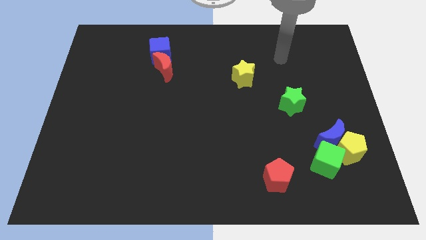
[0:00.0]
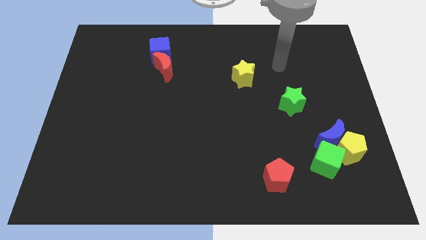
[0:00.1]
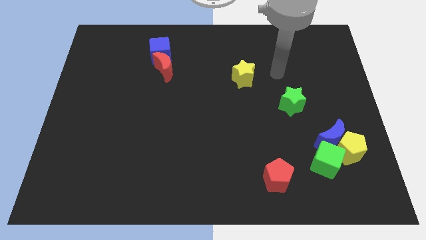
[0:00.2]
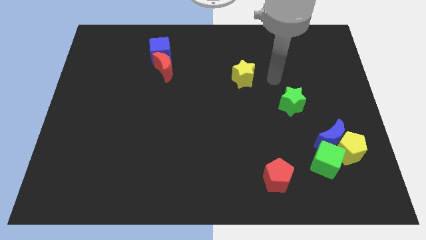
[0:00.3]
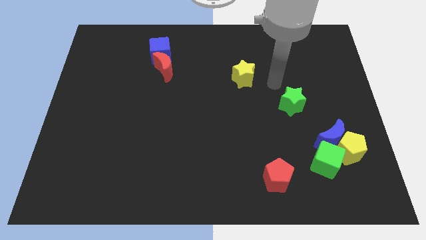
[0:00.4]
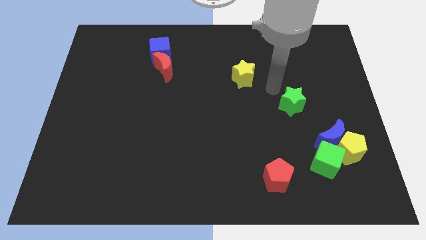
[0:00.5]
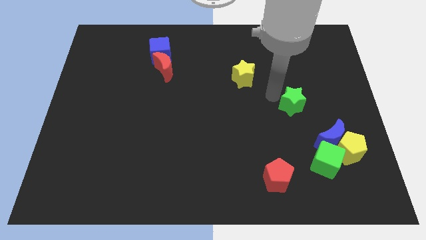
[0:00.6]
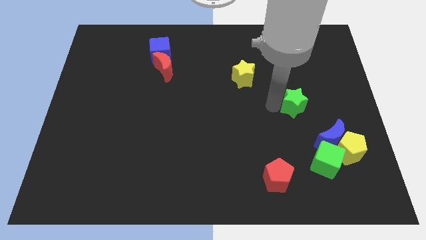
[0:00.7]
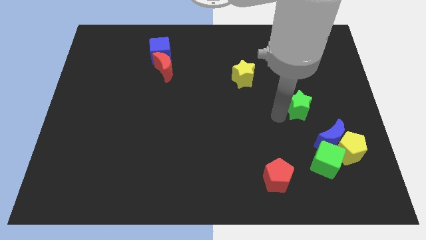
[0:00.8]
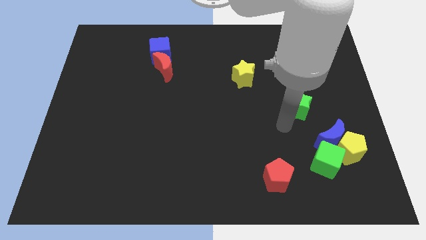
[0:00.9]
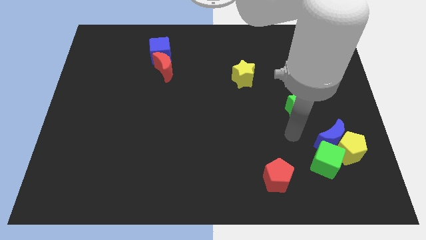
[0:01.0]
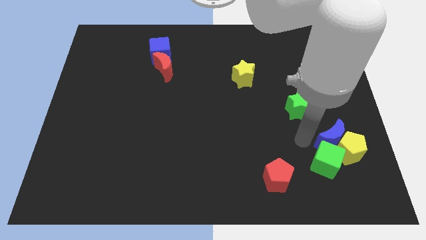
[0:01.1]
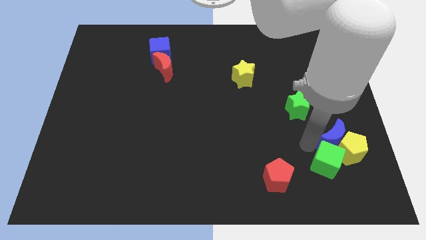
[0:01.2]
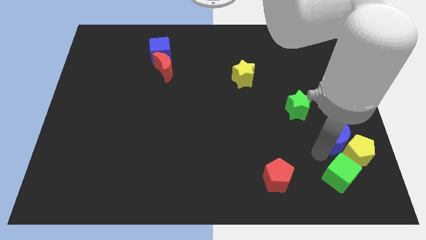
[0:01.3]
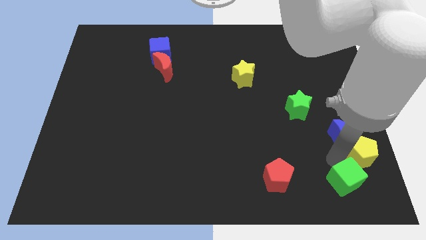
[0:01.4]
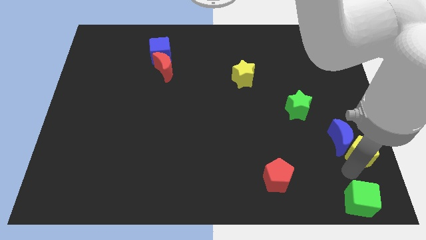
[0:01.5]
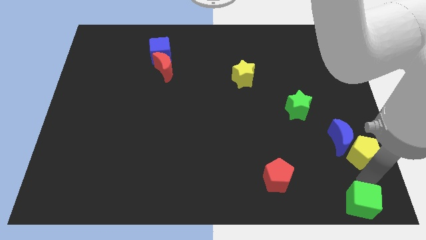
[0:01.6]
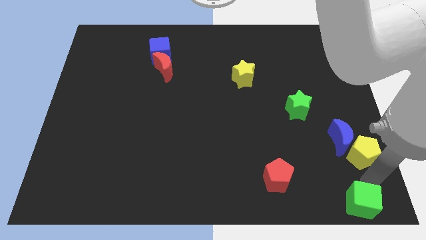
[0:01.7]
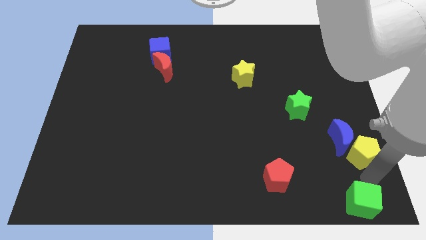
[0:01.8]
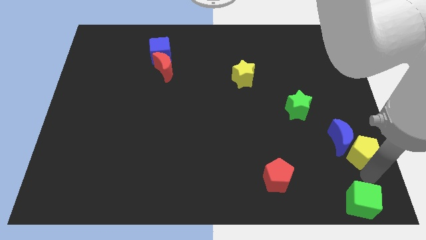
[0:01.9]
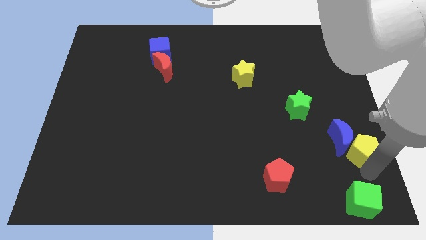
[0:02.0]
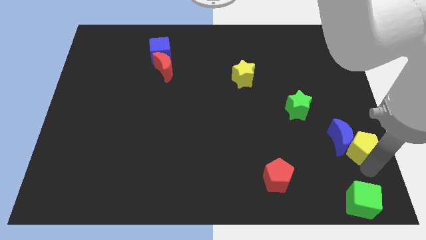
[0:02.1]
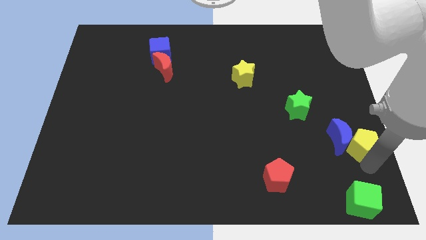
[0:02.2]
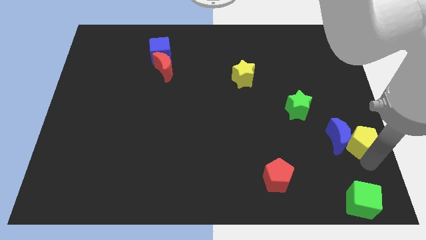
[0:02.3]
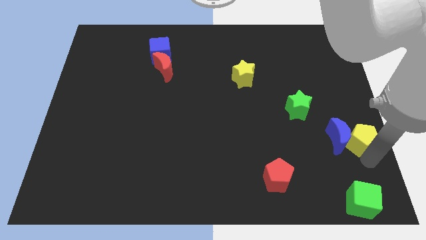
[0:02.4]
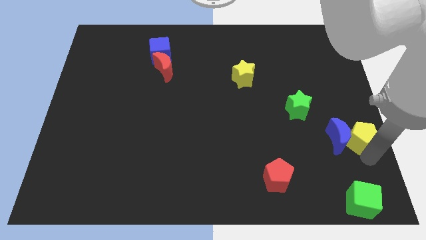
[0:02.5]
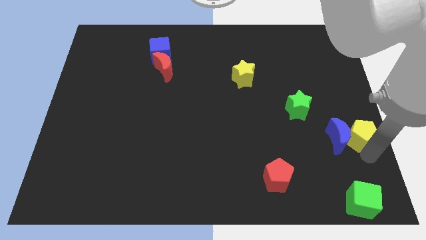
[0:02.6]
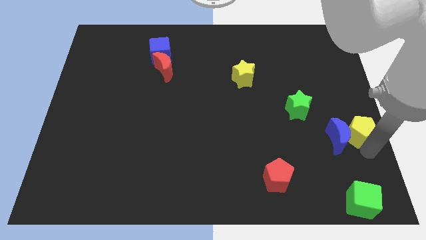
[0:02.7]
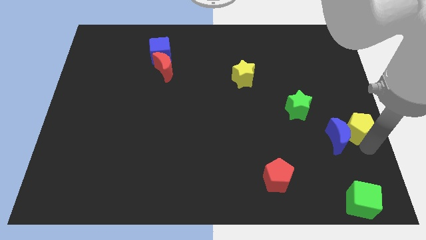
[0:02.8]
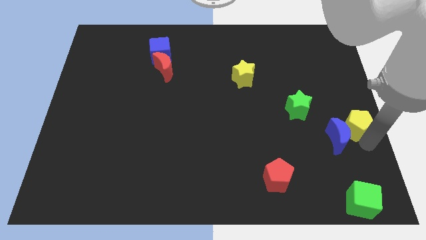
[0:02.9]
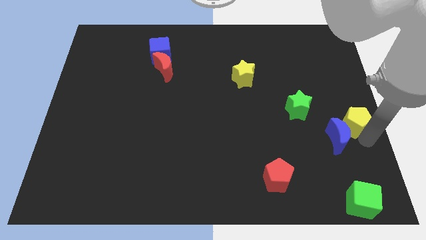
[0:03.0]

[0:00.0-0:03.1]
slightly slide the yellow pentagon upwards

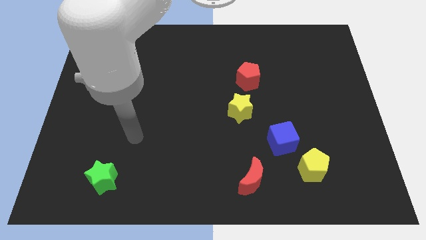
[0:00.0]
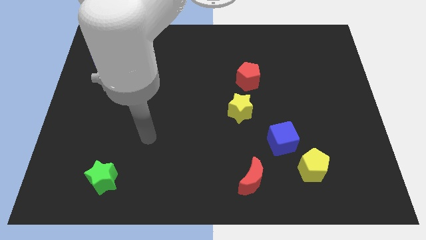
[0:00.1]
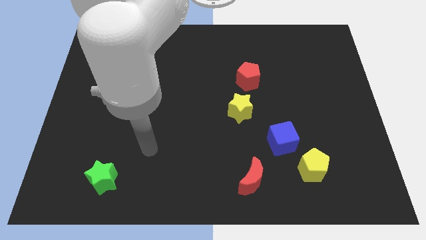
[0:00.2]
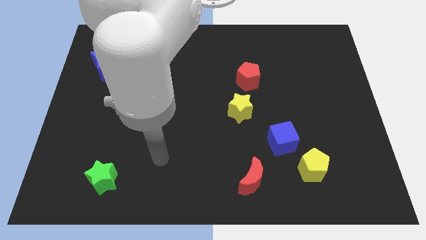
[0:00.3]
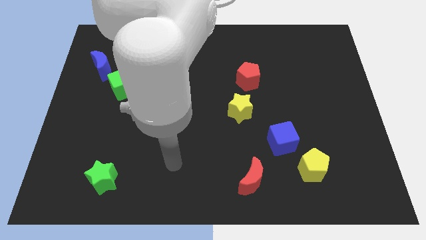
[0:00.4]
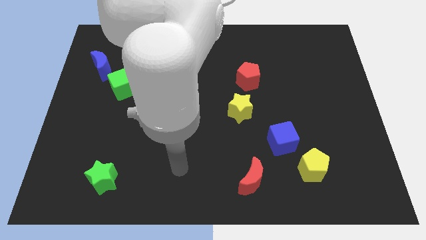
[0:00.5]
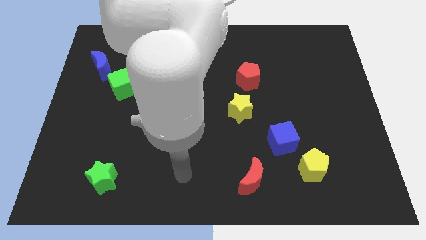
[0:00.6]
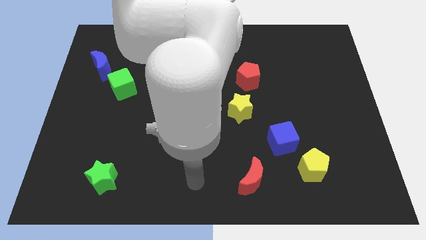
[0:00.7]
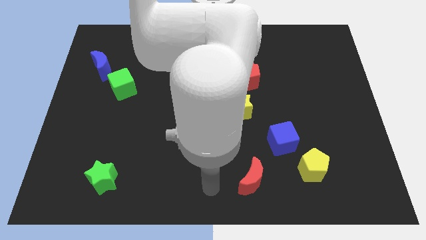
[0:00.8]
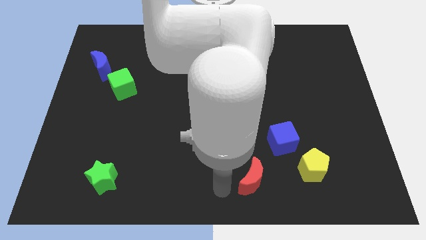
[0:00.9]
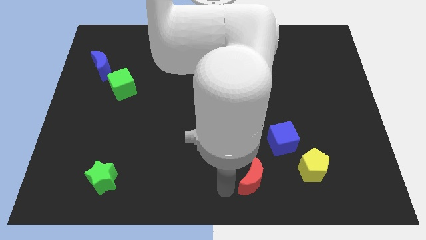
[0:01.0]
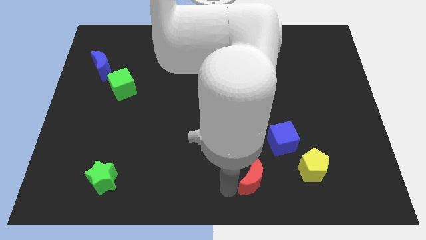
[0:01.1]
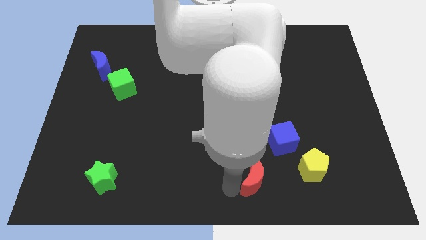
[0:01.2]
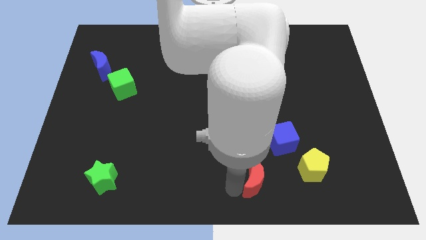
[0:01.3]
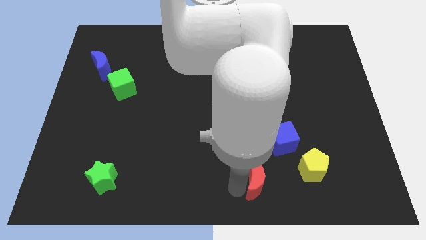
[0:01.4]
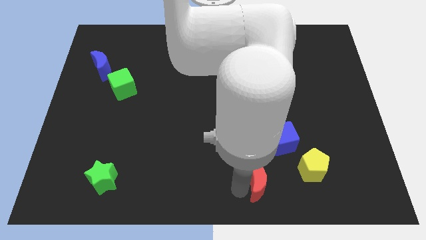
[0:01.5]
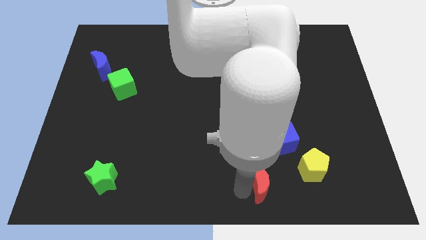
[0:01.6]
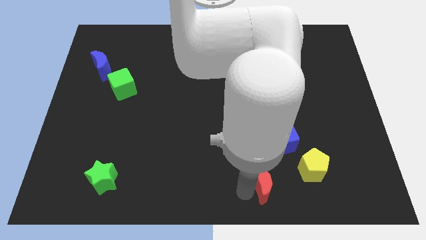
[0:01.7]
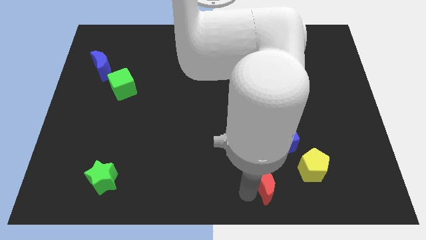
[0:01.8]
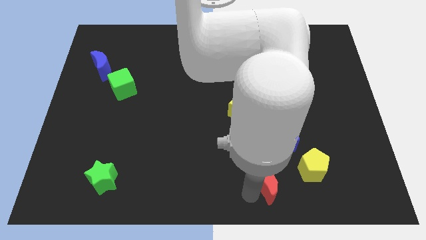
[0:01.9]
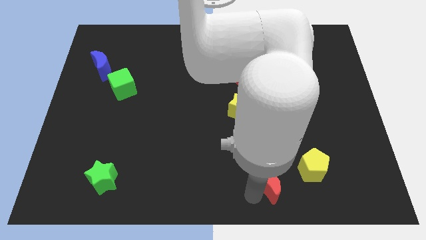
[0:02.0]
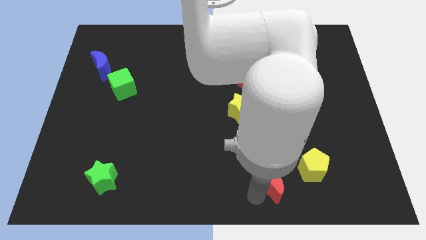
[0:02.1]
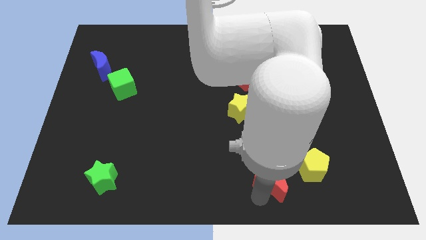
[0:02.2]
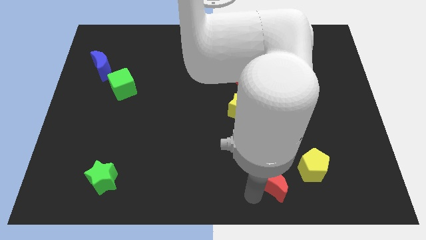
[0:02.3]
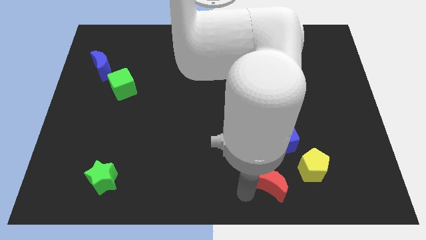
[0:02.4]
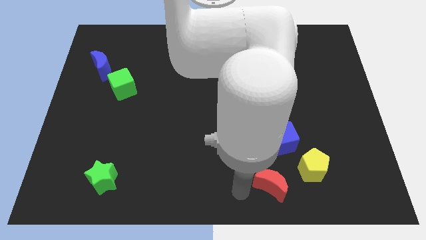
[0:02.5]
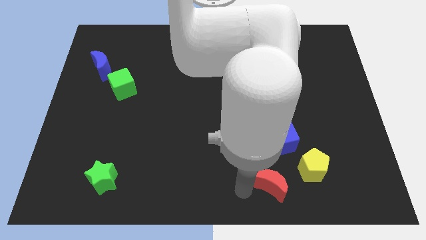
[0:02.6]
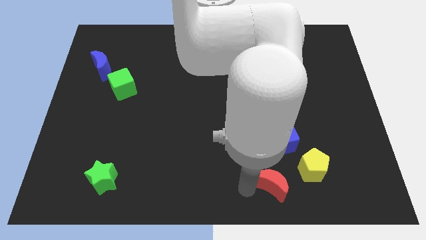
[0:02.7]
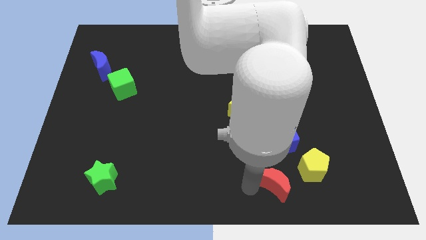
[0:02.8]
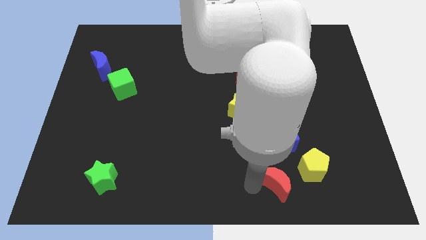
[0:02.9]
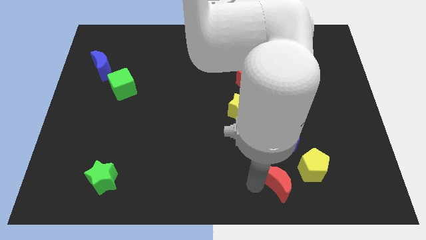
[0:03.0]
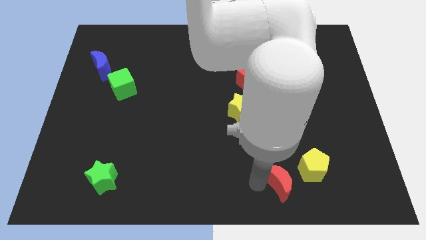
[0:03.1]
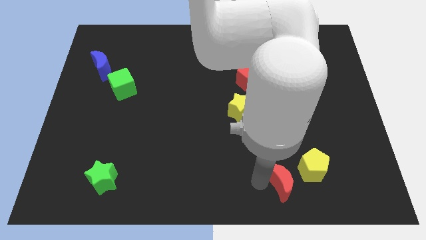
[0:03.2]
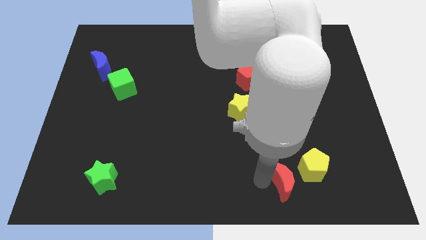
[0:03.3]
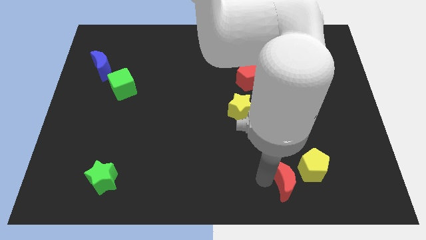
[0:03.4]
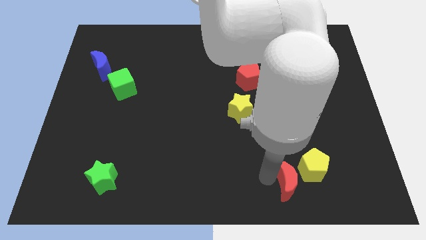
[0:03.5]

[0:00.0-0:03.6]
slightly push the red moon right

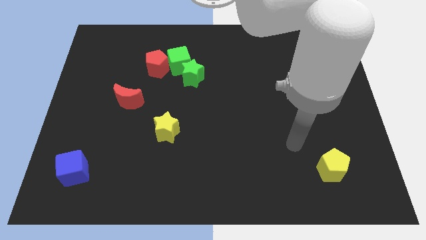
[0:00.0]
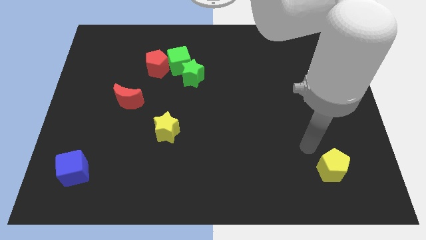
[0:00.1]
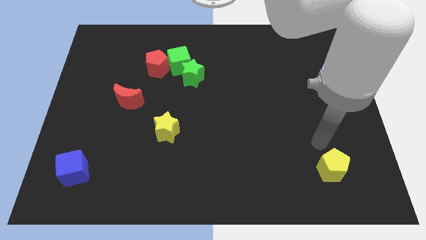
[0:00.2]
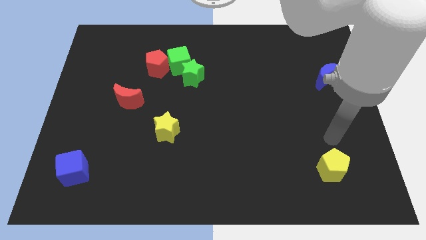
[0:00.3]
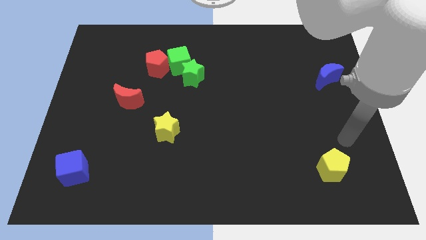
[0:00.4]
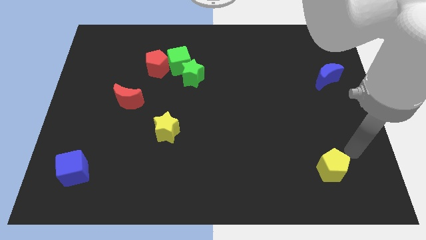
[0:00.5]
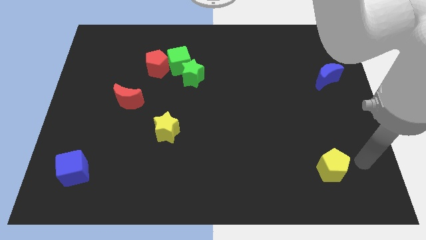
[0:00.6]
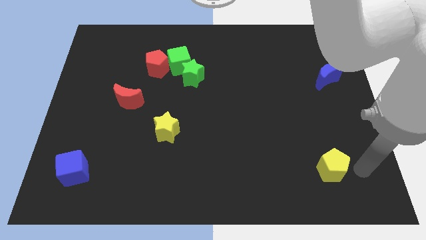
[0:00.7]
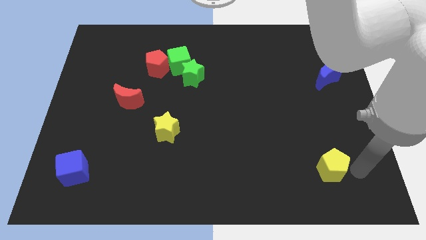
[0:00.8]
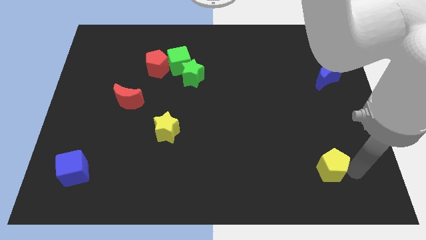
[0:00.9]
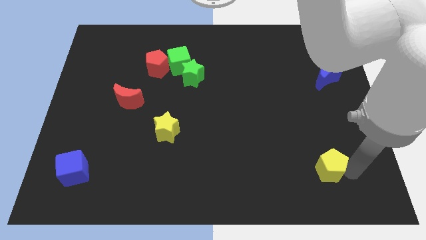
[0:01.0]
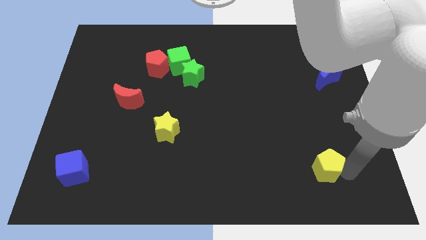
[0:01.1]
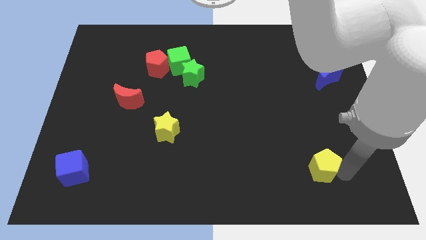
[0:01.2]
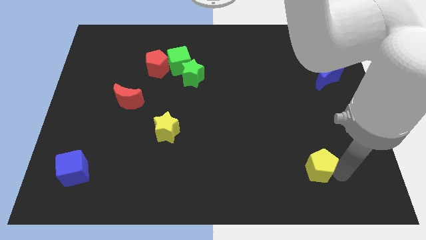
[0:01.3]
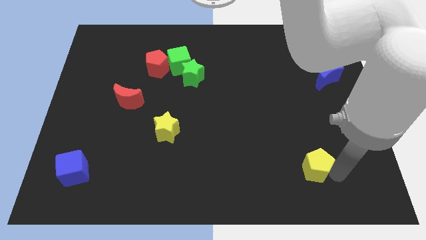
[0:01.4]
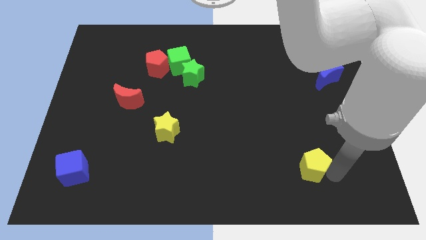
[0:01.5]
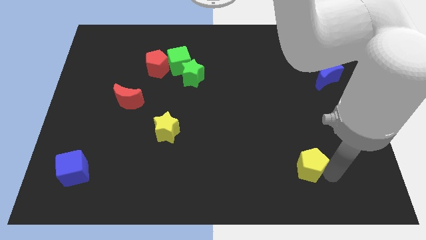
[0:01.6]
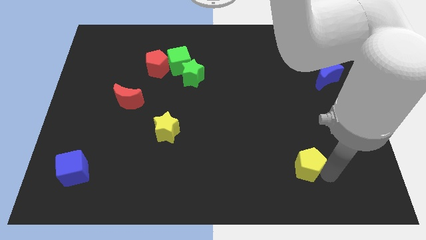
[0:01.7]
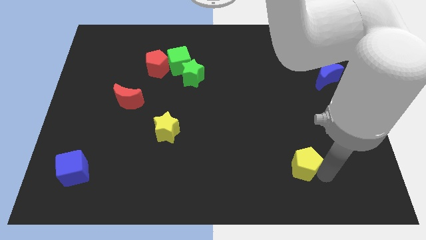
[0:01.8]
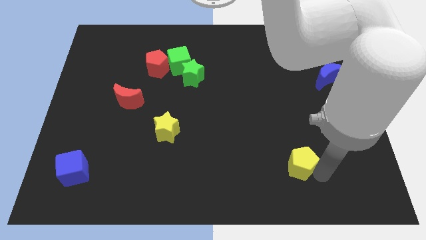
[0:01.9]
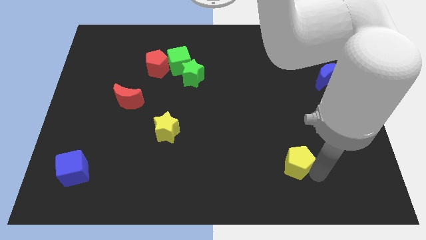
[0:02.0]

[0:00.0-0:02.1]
move the yellow pentagon a little to the left
